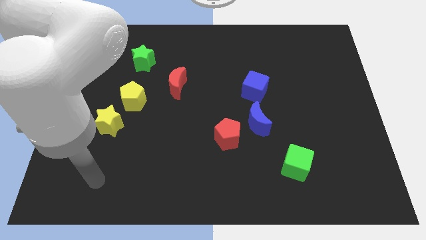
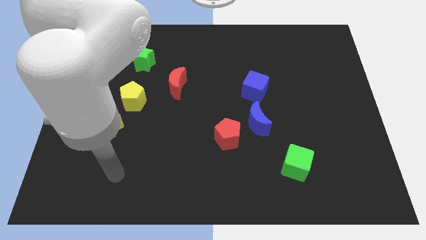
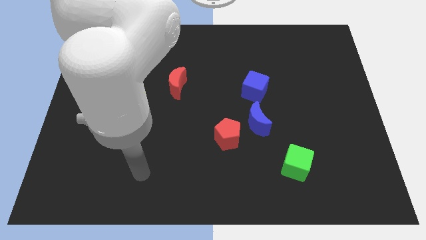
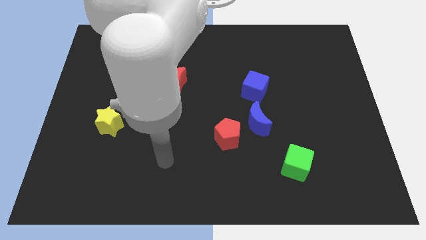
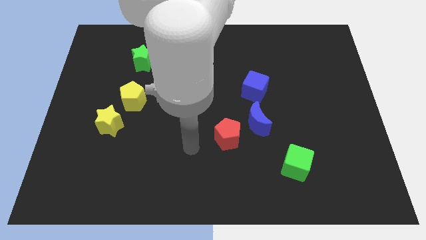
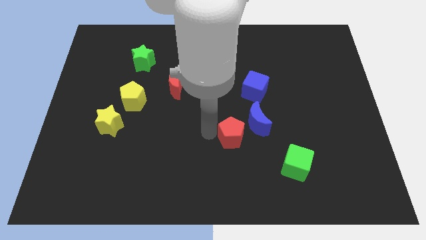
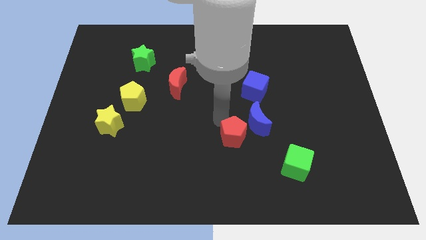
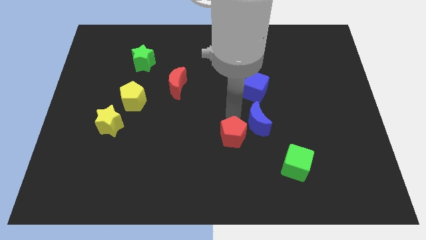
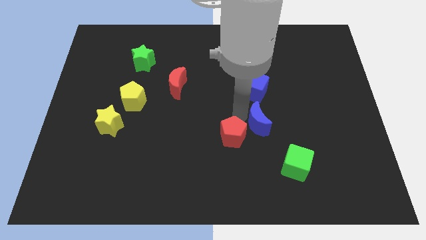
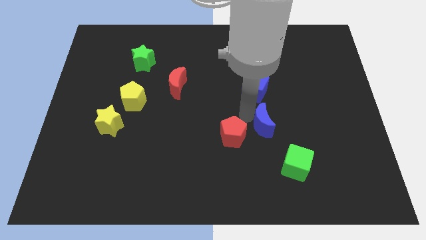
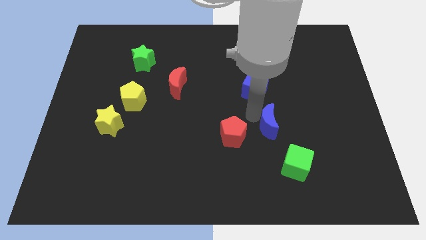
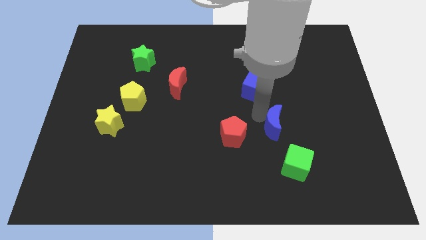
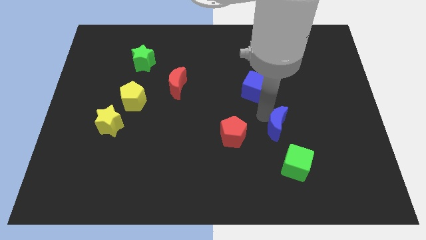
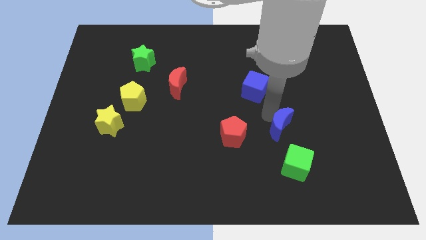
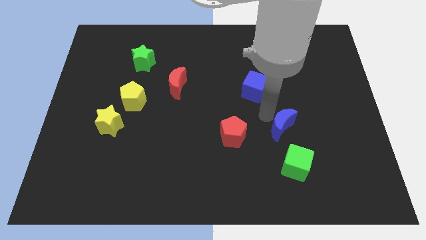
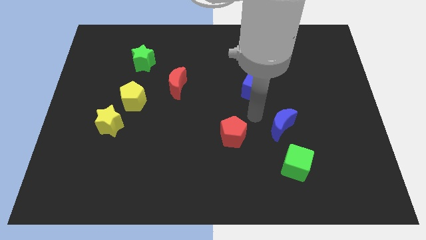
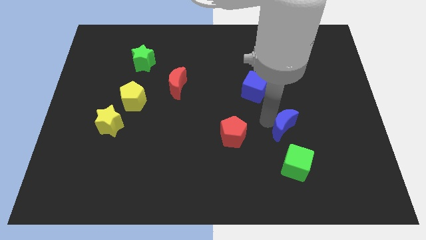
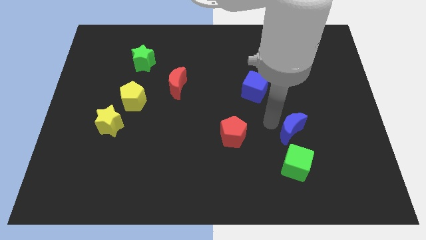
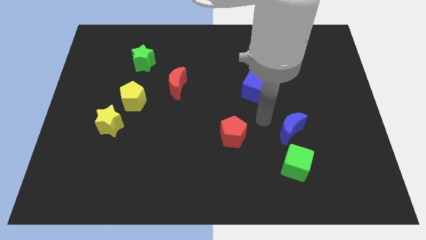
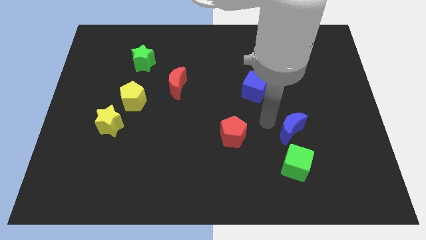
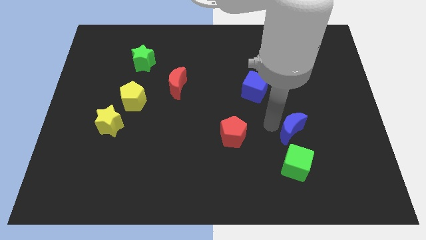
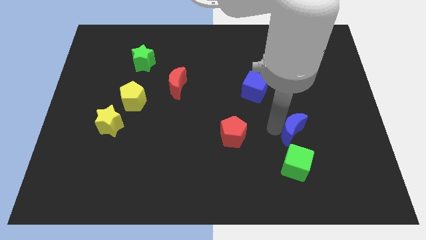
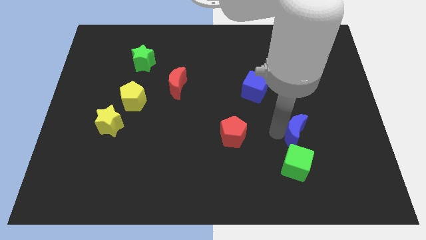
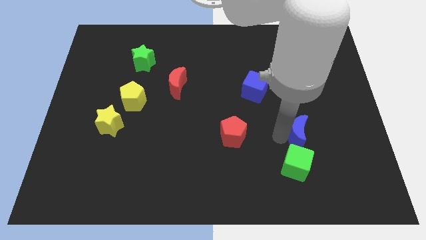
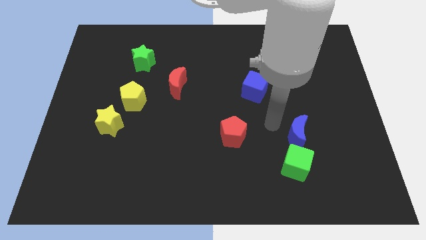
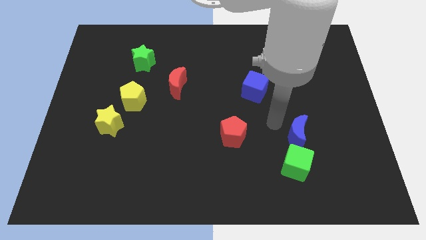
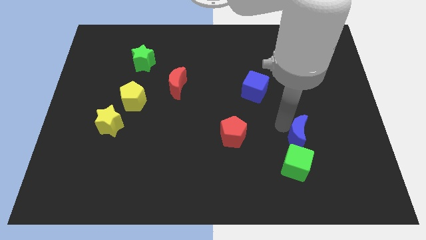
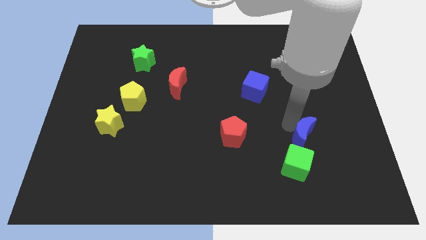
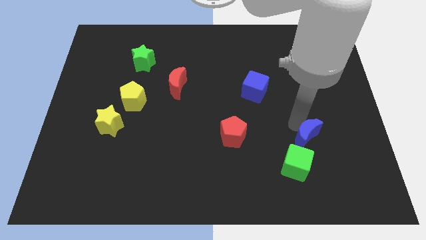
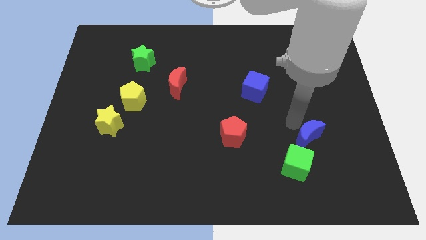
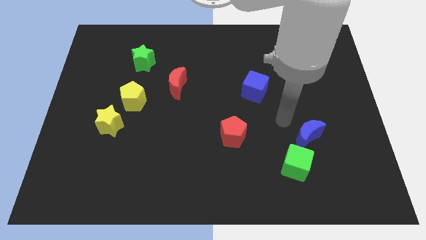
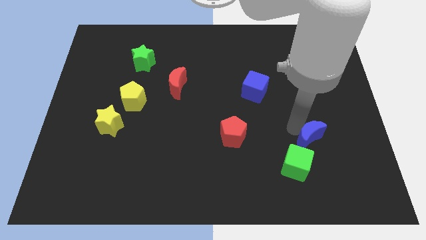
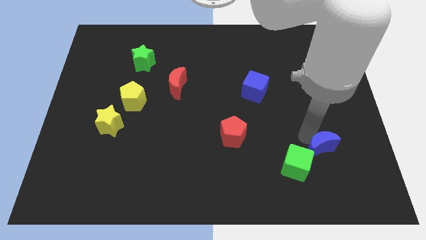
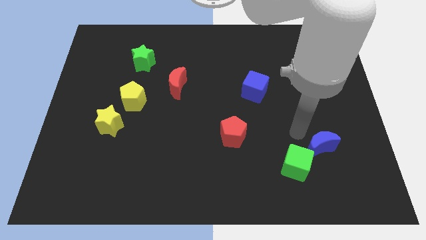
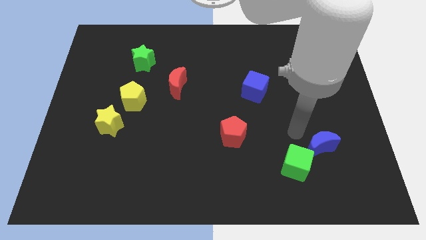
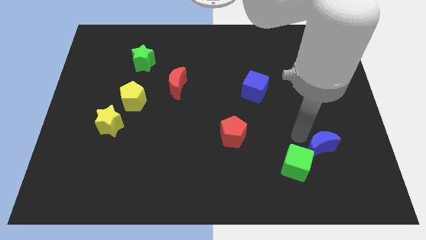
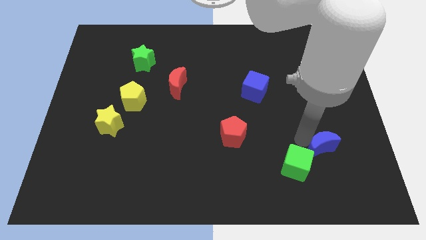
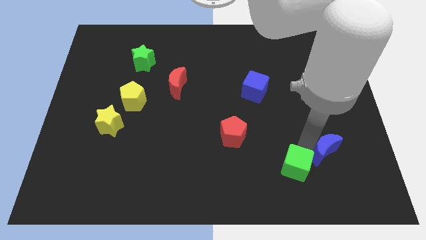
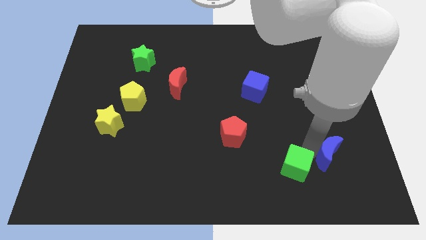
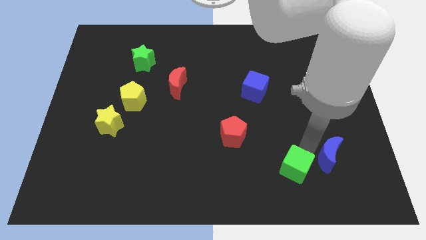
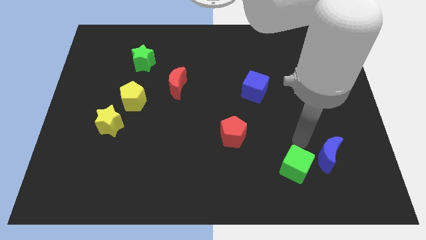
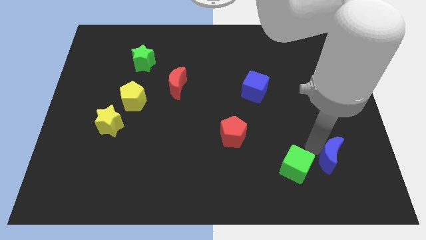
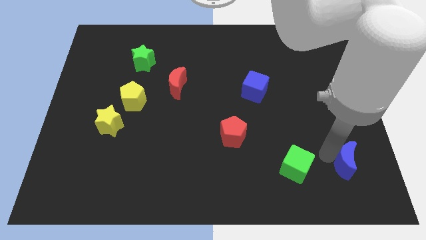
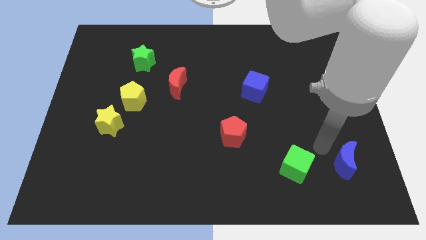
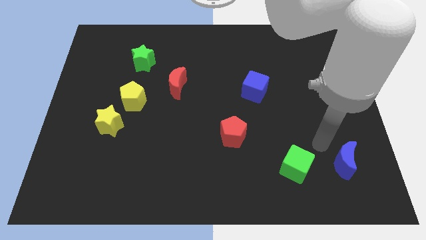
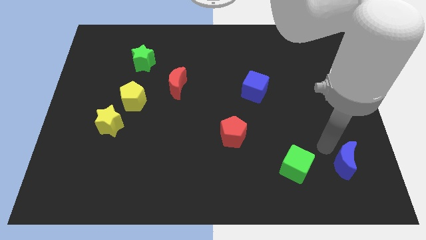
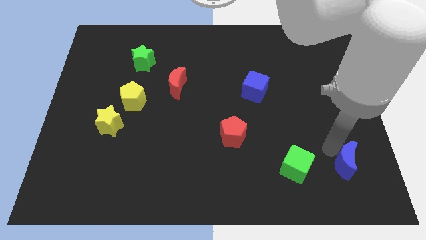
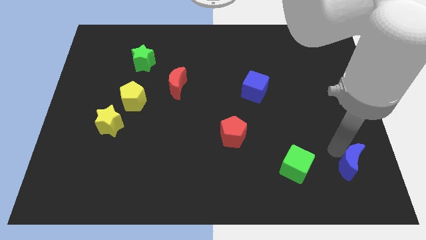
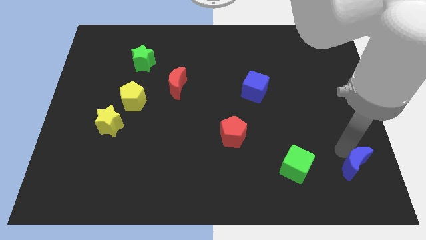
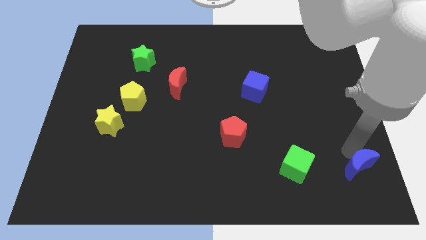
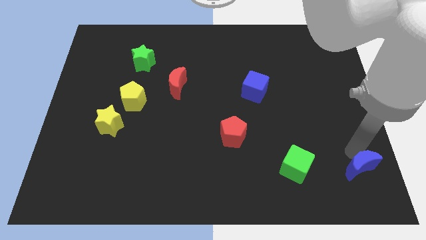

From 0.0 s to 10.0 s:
push the blue moon to the lower right corner
